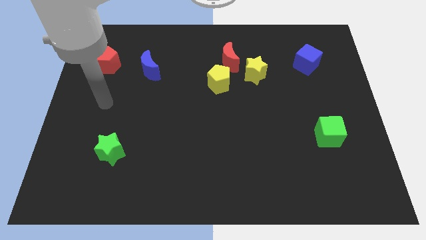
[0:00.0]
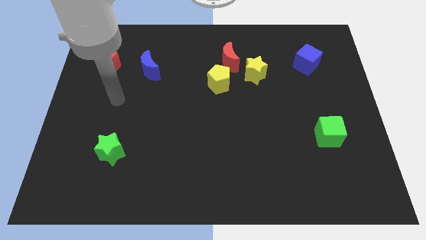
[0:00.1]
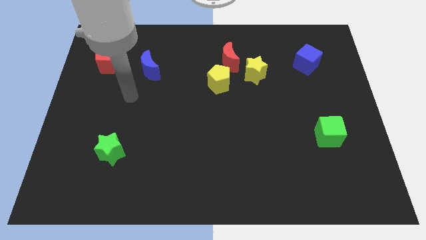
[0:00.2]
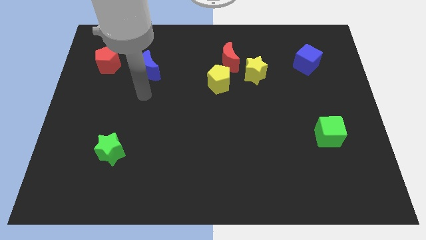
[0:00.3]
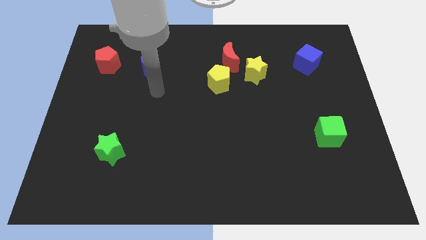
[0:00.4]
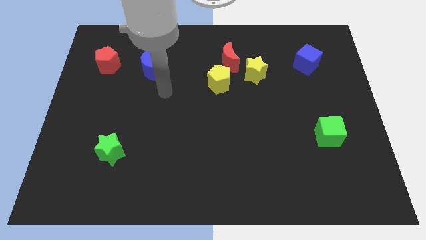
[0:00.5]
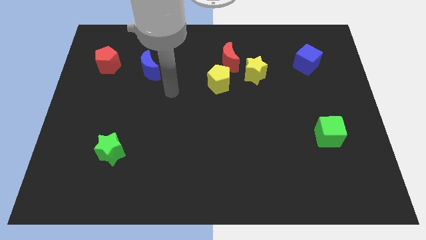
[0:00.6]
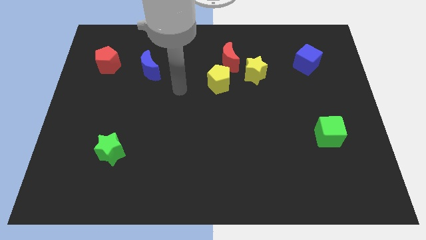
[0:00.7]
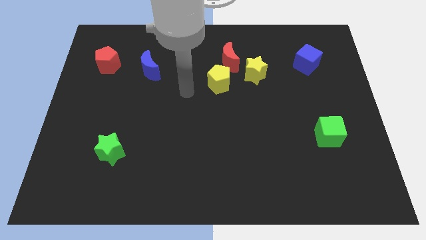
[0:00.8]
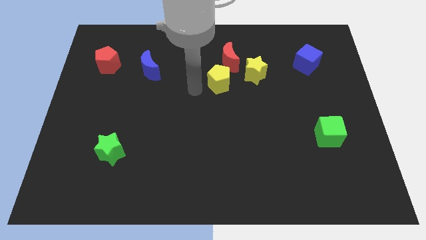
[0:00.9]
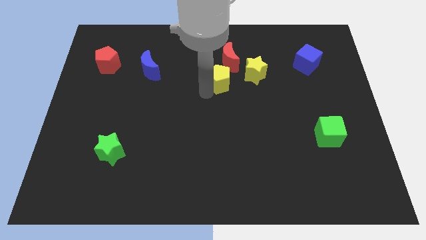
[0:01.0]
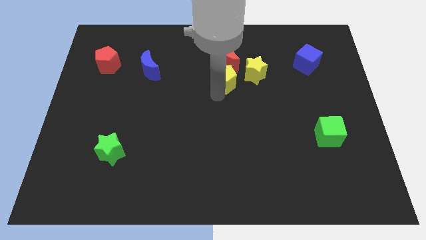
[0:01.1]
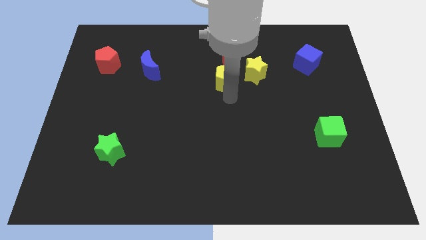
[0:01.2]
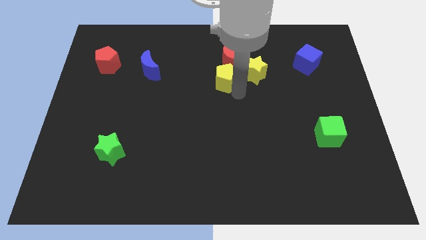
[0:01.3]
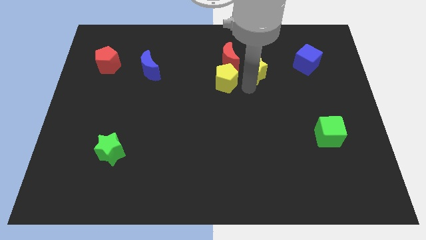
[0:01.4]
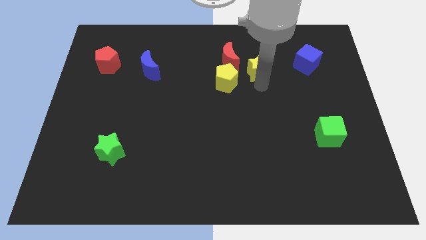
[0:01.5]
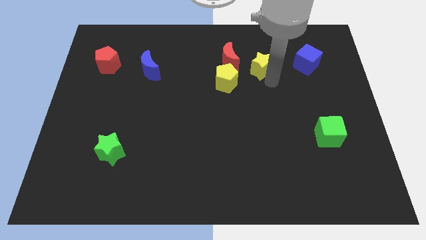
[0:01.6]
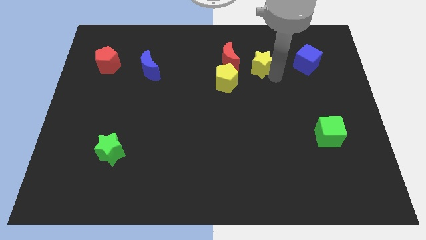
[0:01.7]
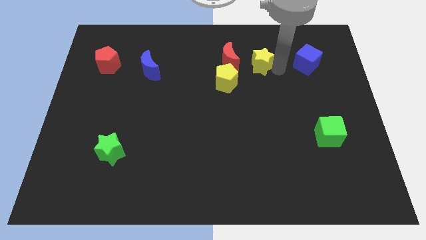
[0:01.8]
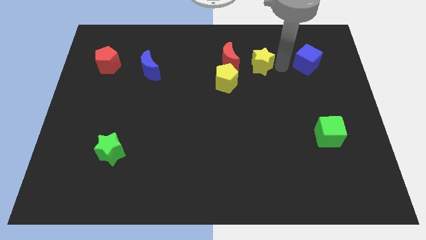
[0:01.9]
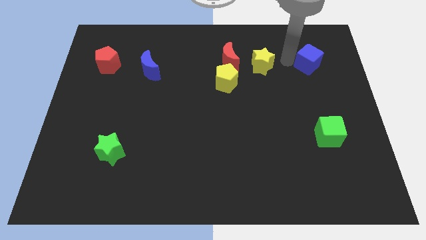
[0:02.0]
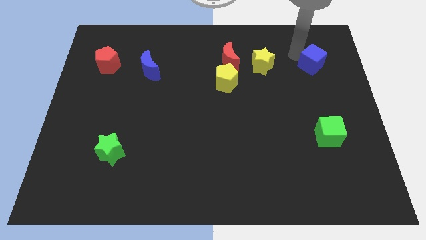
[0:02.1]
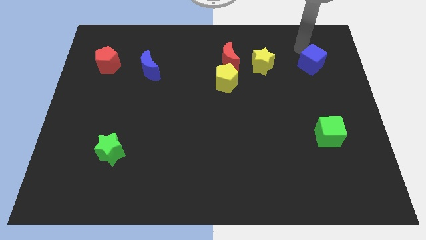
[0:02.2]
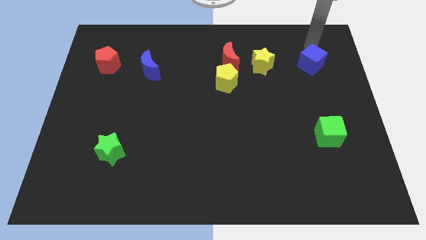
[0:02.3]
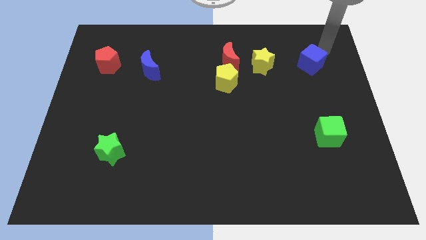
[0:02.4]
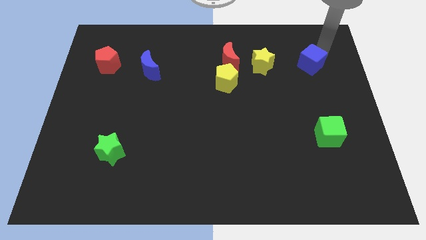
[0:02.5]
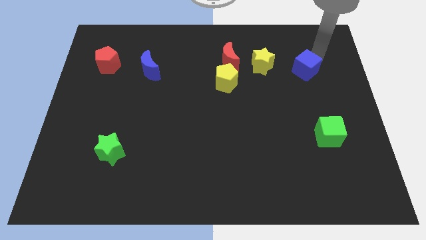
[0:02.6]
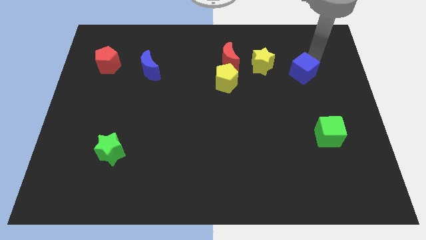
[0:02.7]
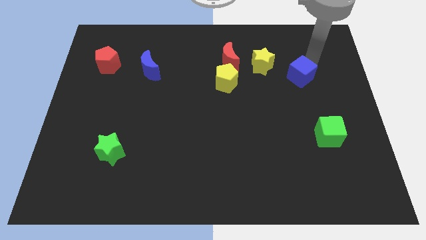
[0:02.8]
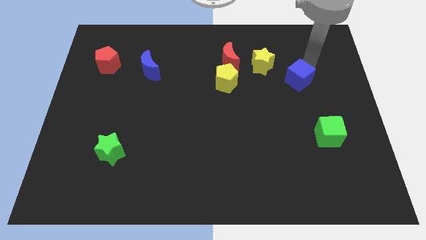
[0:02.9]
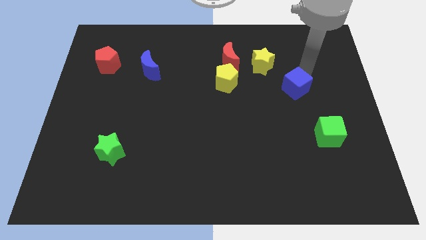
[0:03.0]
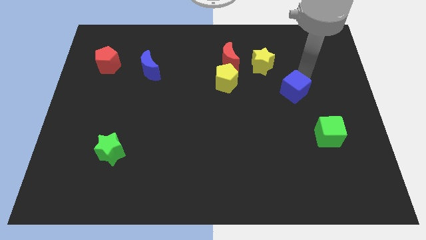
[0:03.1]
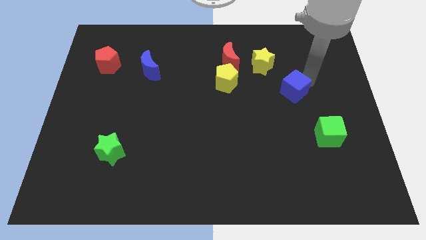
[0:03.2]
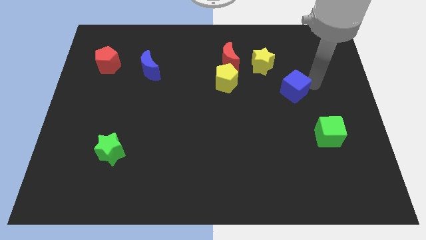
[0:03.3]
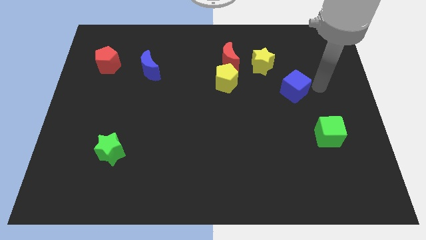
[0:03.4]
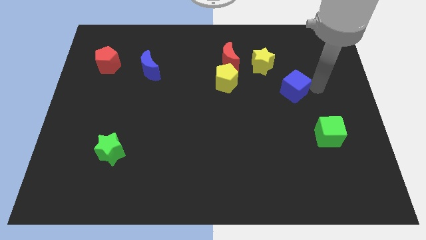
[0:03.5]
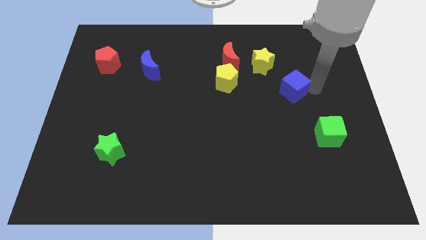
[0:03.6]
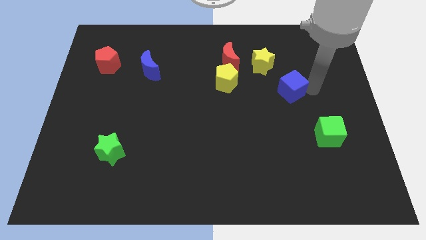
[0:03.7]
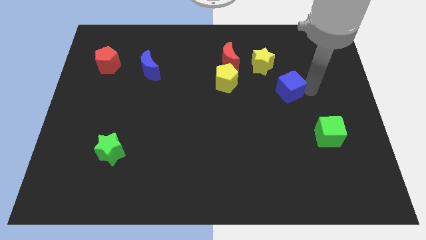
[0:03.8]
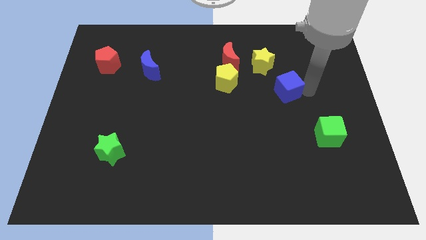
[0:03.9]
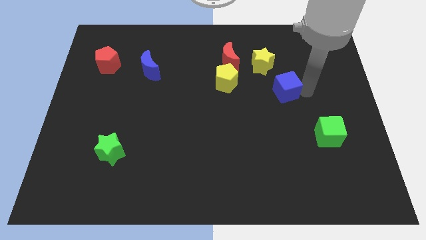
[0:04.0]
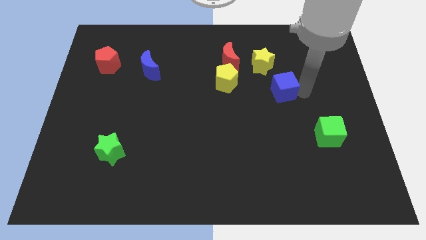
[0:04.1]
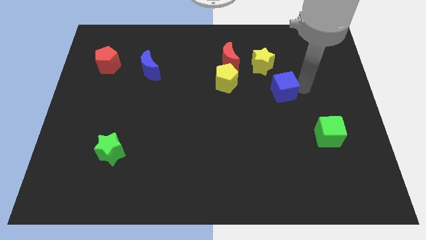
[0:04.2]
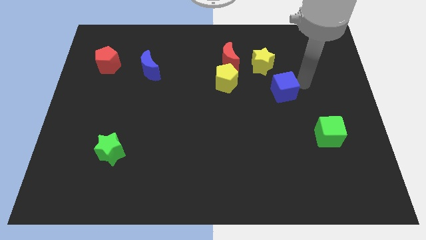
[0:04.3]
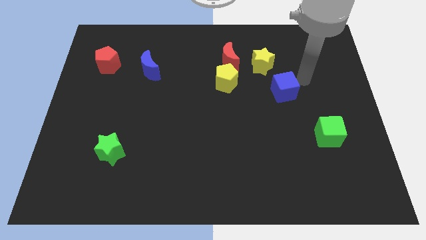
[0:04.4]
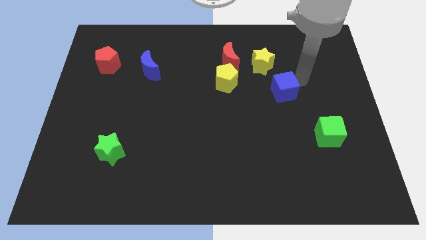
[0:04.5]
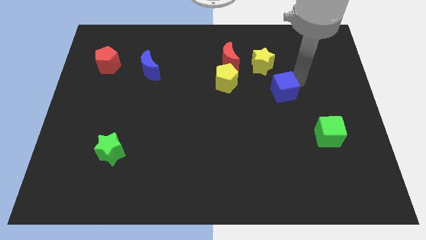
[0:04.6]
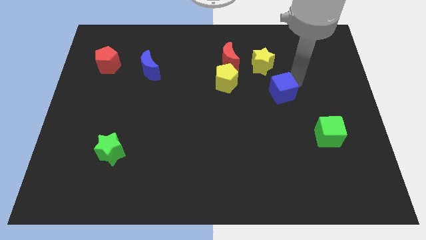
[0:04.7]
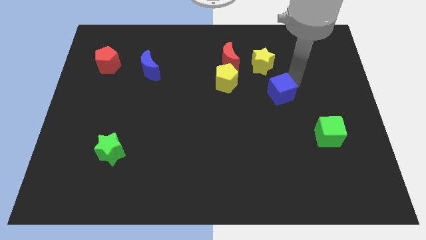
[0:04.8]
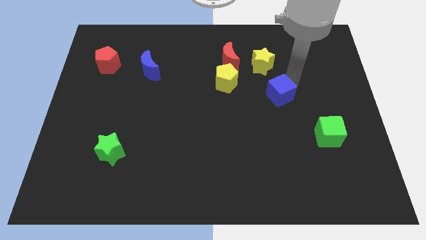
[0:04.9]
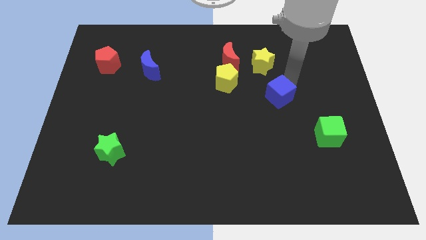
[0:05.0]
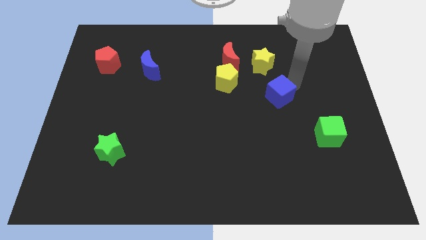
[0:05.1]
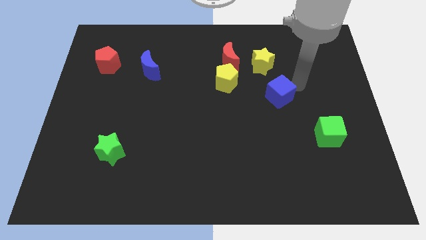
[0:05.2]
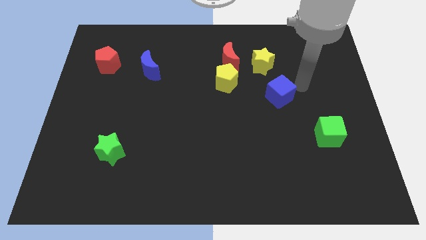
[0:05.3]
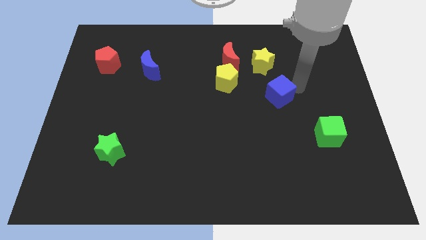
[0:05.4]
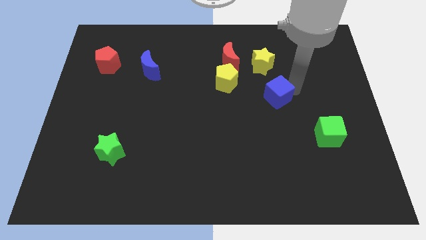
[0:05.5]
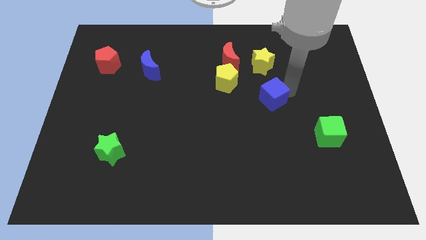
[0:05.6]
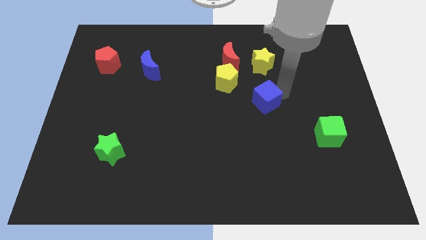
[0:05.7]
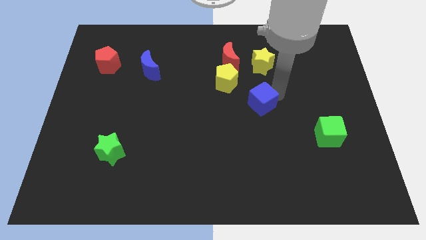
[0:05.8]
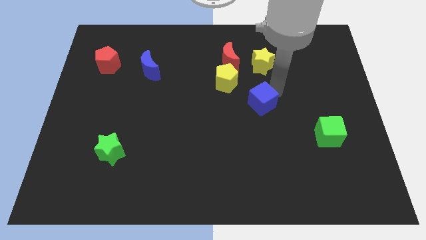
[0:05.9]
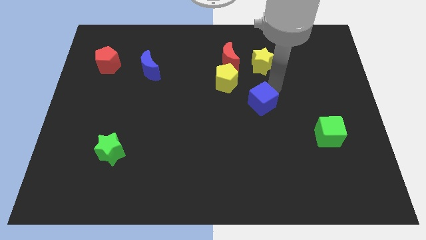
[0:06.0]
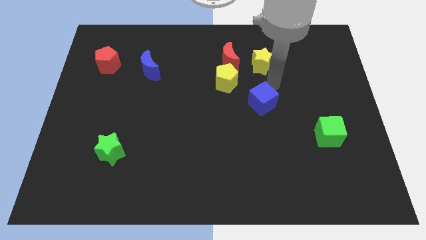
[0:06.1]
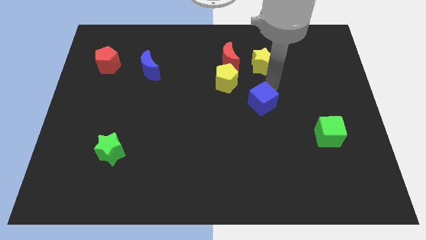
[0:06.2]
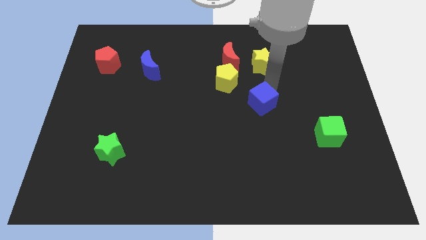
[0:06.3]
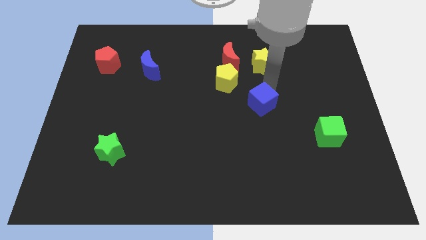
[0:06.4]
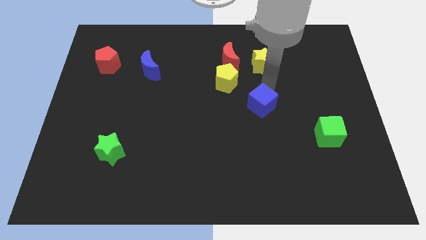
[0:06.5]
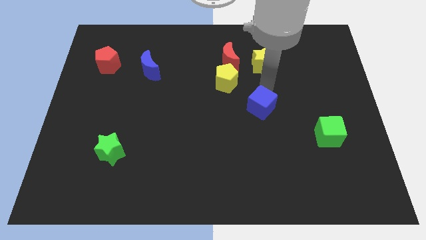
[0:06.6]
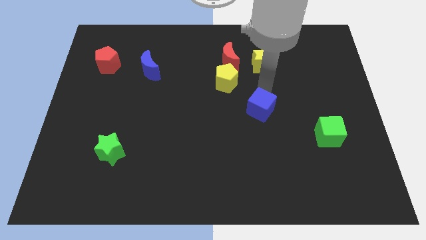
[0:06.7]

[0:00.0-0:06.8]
move the blue cube diagonally down and to the left

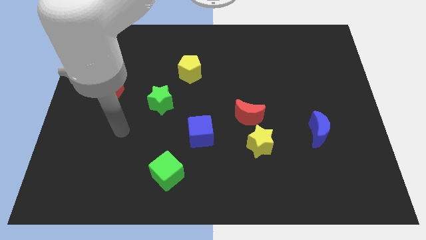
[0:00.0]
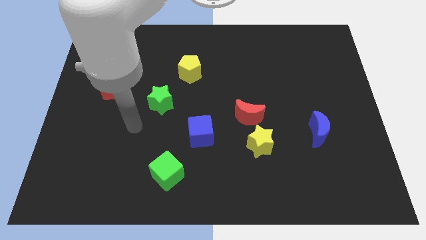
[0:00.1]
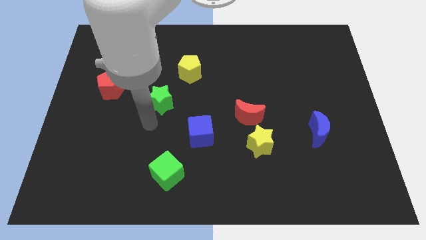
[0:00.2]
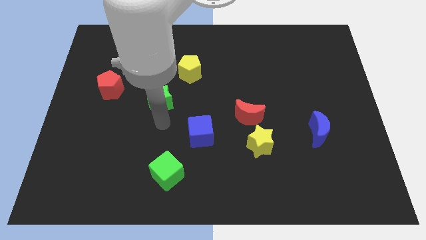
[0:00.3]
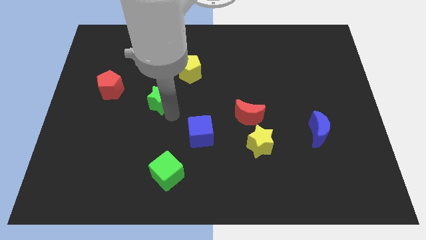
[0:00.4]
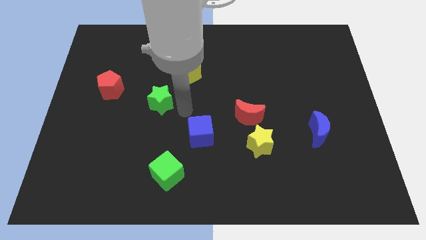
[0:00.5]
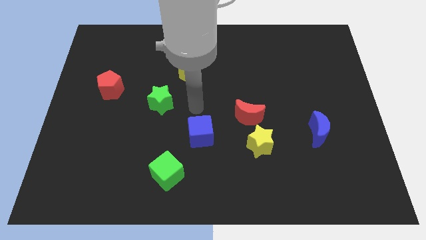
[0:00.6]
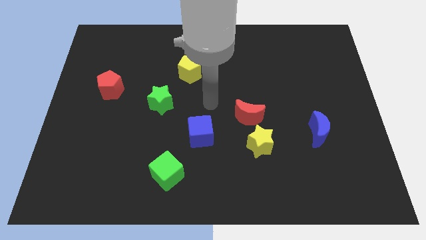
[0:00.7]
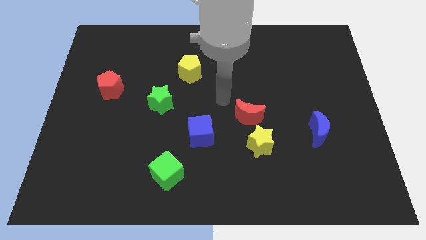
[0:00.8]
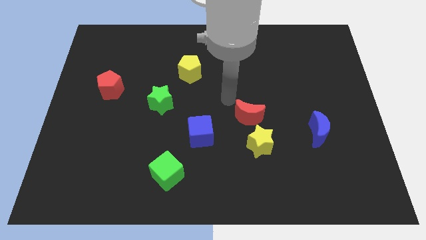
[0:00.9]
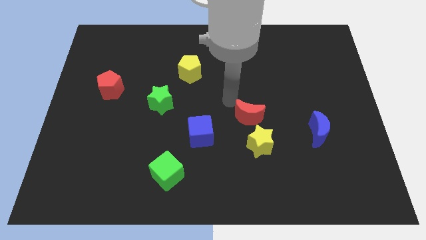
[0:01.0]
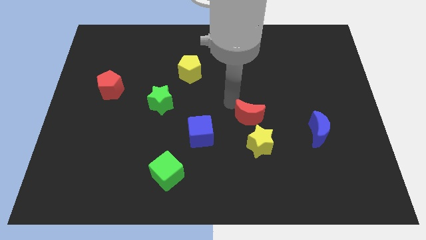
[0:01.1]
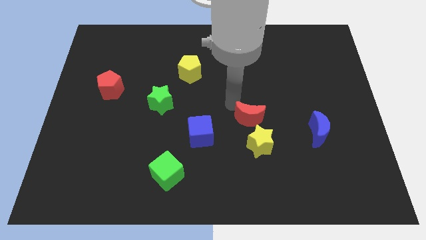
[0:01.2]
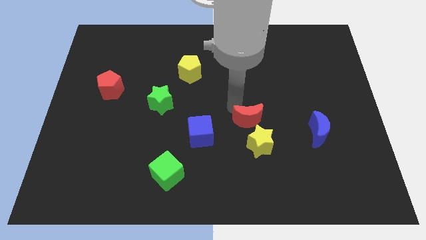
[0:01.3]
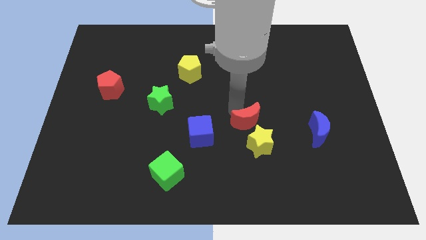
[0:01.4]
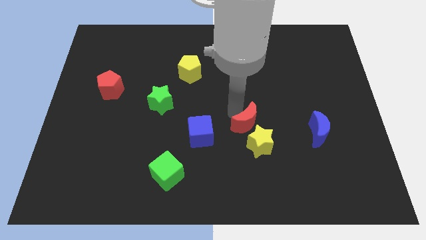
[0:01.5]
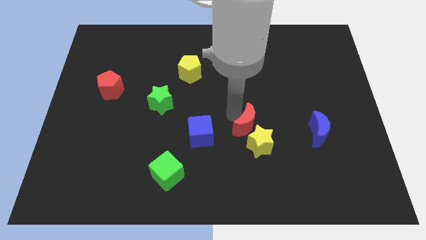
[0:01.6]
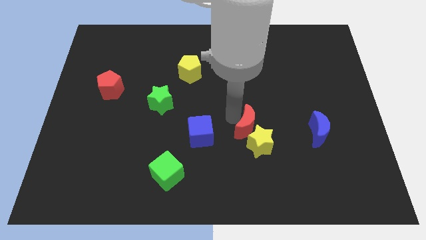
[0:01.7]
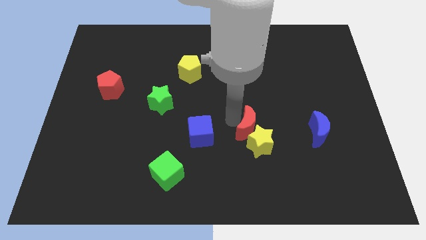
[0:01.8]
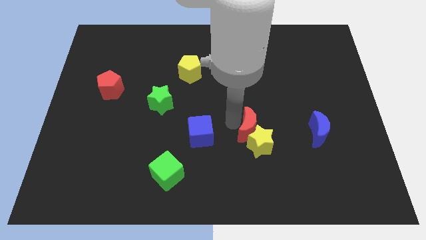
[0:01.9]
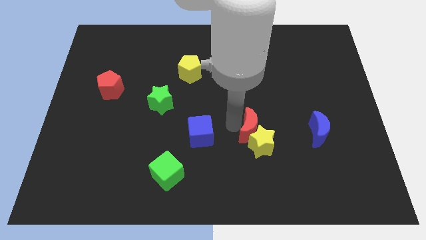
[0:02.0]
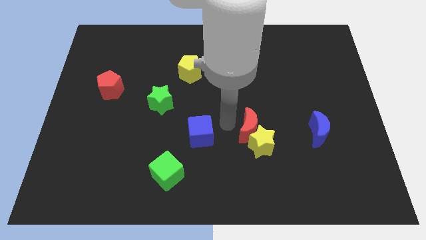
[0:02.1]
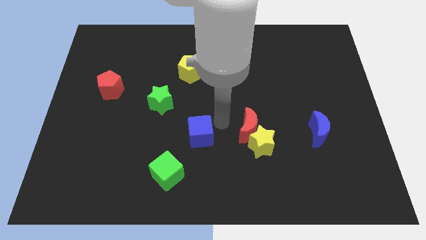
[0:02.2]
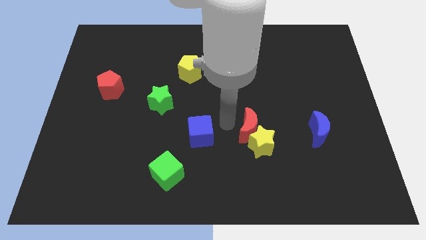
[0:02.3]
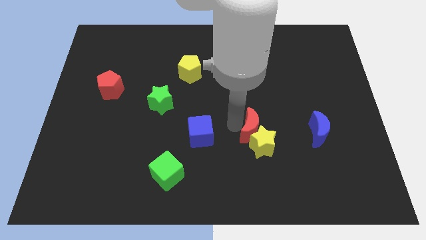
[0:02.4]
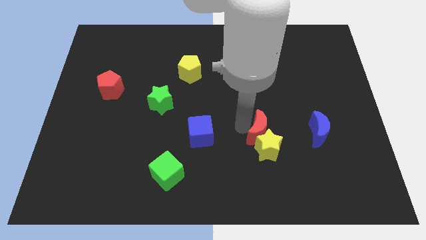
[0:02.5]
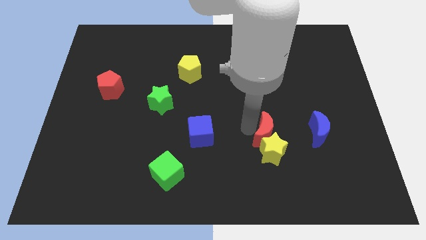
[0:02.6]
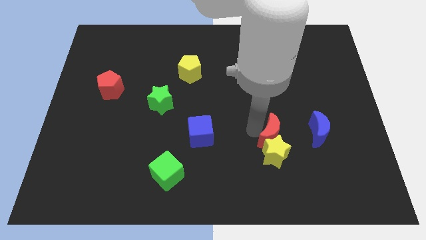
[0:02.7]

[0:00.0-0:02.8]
push the red moon a bit down and to the right diagonally
